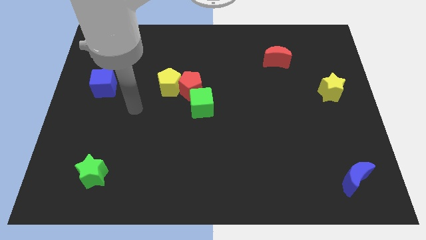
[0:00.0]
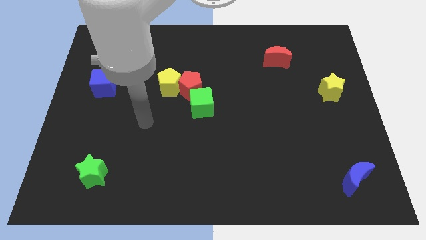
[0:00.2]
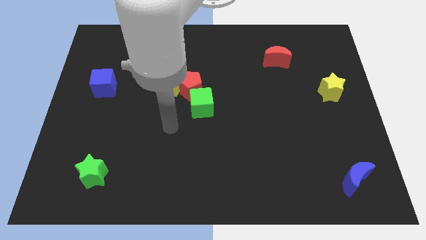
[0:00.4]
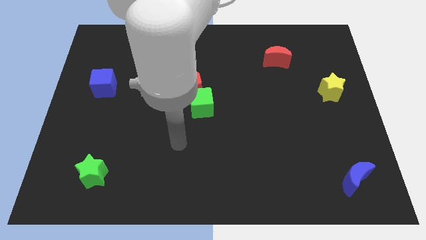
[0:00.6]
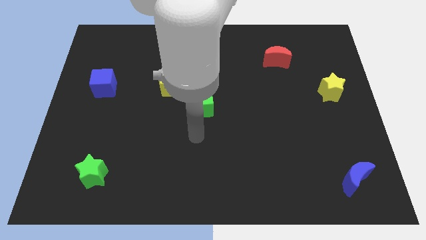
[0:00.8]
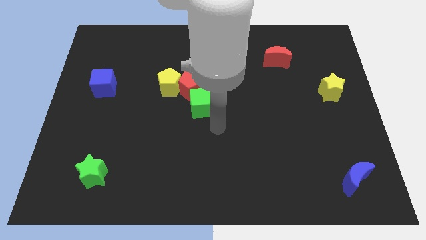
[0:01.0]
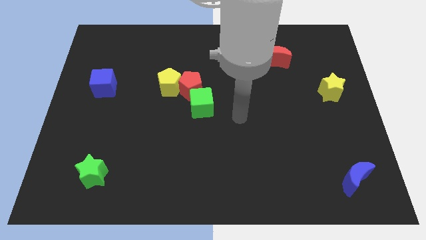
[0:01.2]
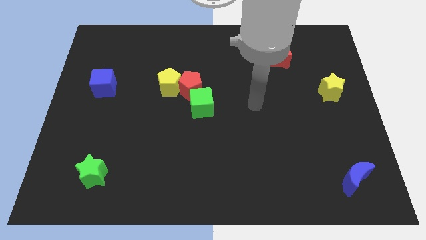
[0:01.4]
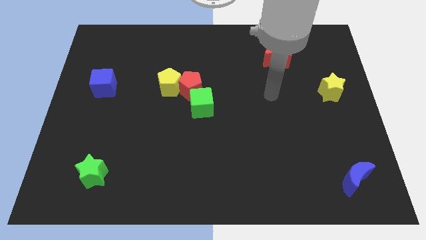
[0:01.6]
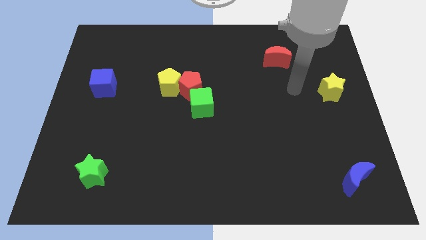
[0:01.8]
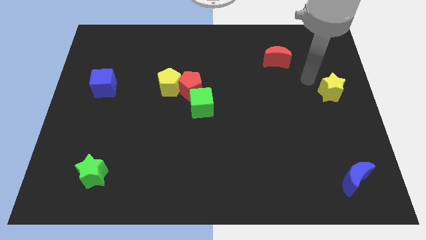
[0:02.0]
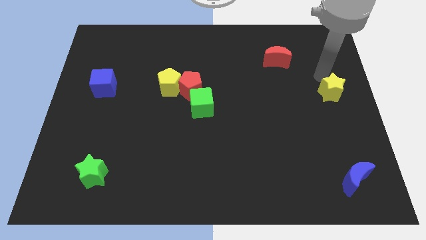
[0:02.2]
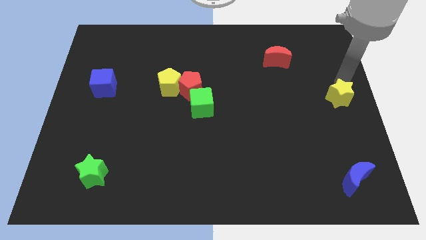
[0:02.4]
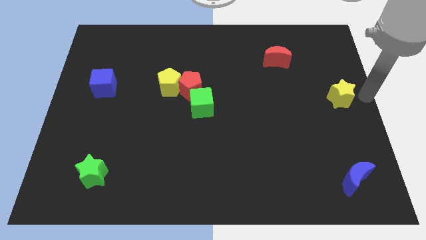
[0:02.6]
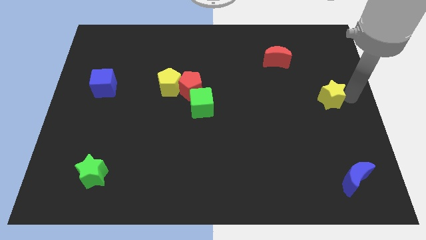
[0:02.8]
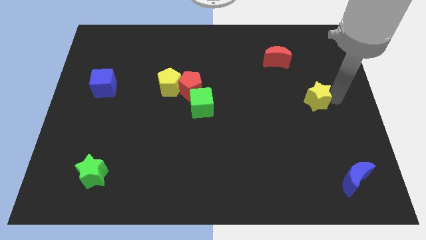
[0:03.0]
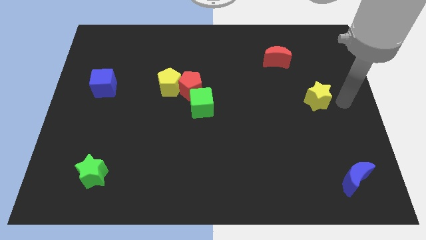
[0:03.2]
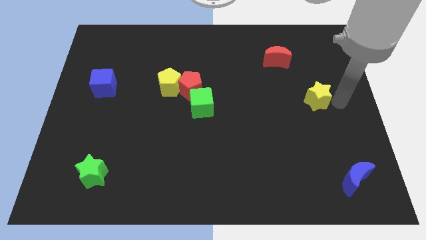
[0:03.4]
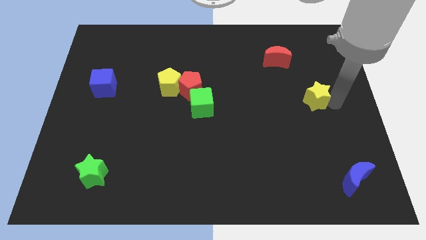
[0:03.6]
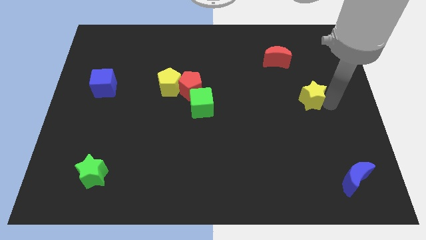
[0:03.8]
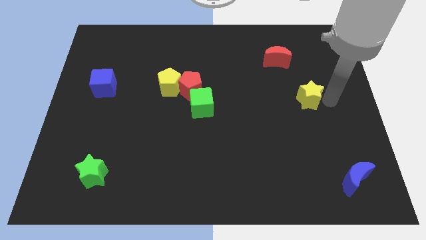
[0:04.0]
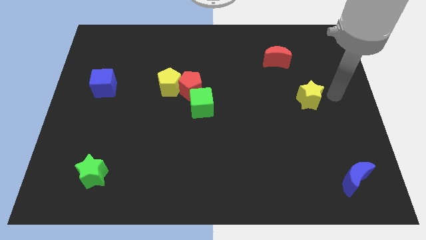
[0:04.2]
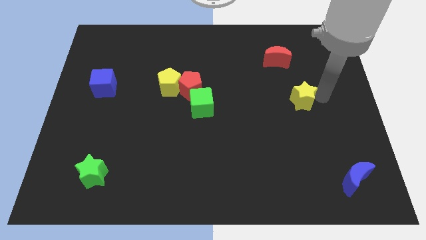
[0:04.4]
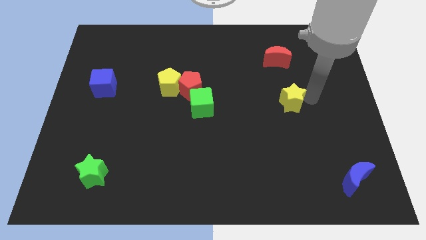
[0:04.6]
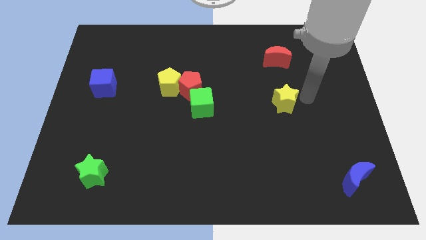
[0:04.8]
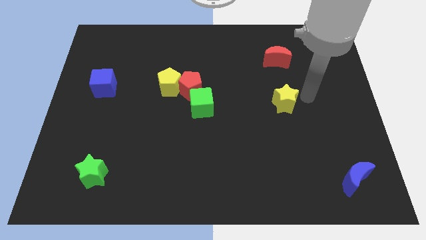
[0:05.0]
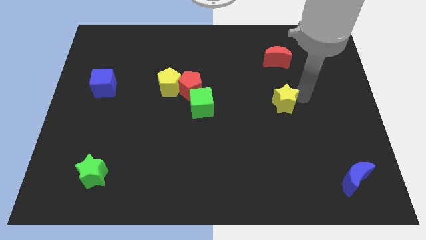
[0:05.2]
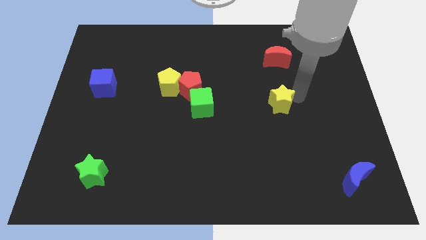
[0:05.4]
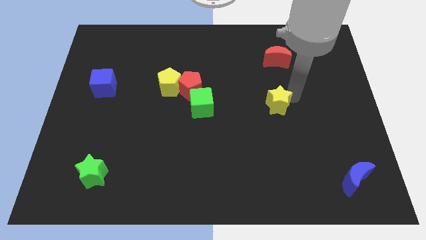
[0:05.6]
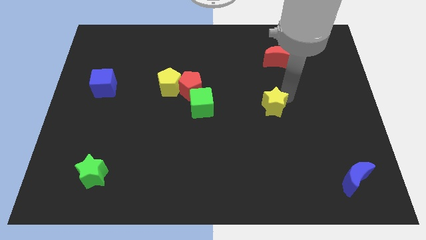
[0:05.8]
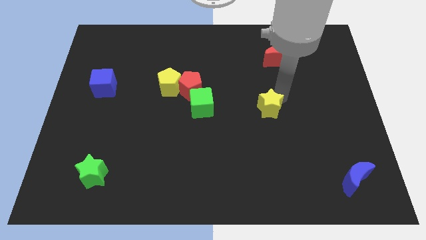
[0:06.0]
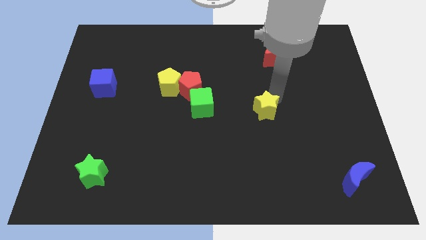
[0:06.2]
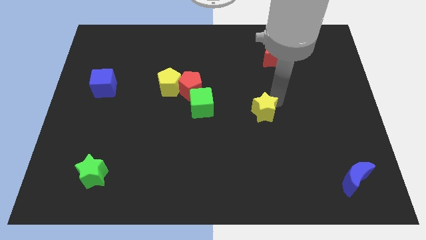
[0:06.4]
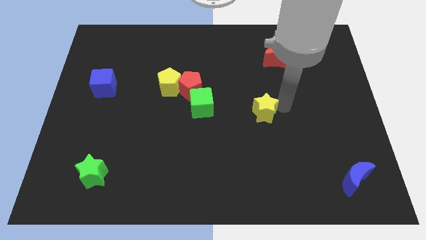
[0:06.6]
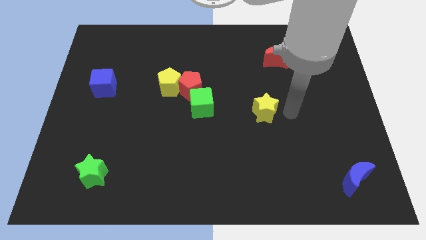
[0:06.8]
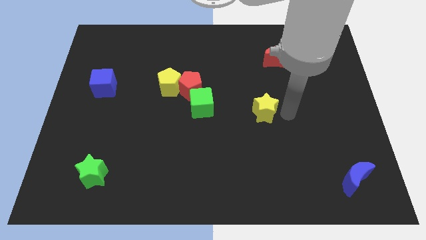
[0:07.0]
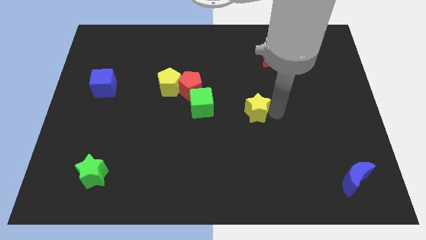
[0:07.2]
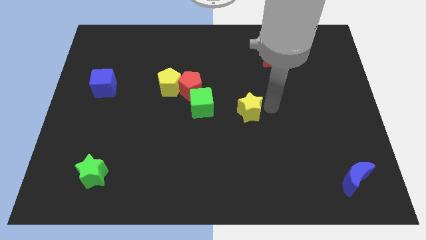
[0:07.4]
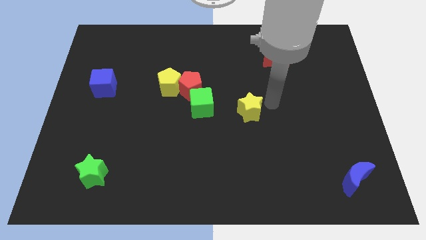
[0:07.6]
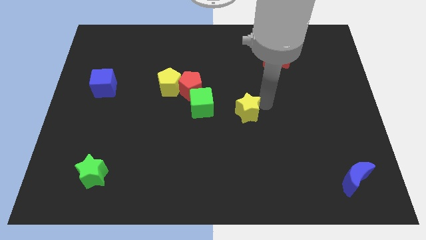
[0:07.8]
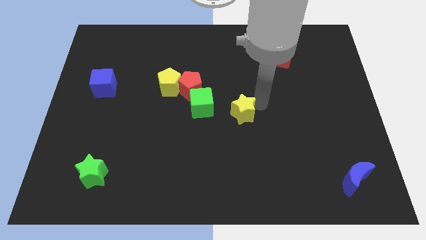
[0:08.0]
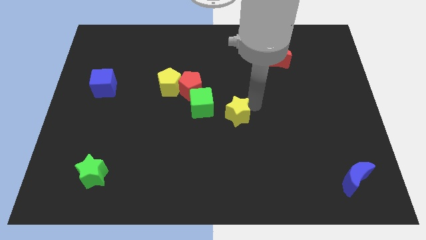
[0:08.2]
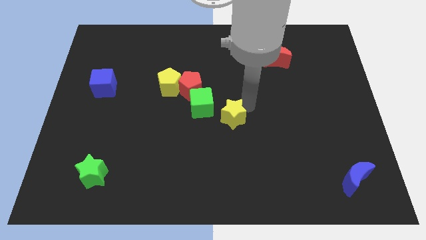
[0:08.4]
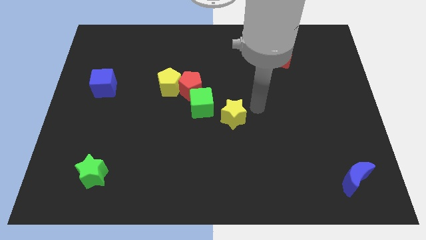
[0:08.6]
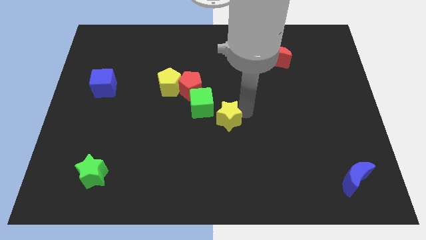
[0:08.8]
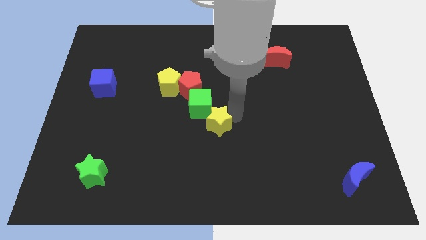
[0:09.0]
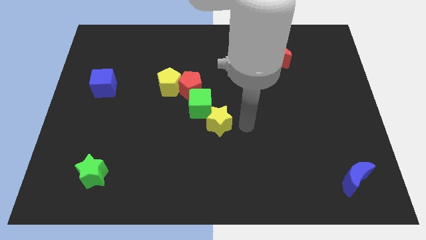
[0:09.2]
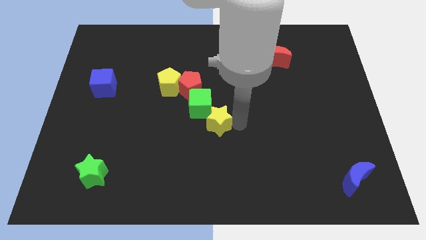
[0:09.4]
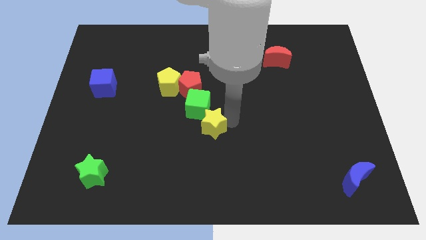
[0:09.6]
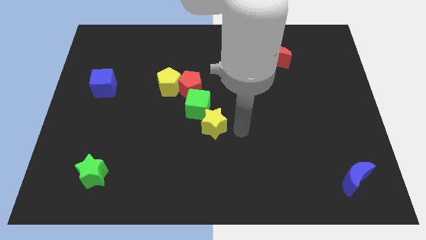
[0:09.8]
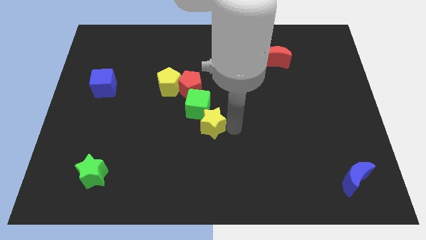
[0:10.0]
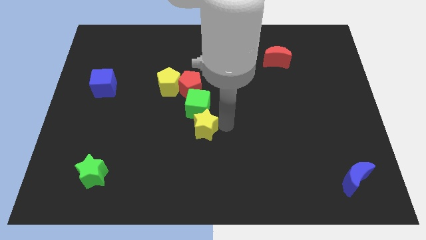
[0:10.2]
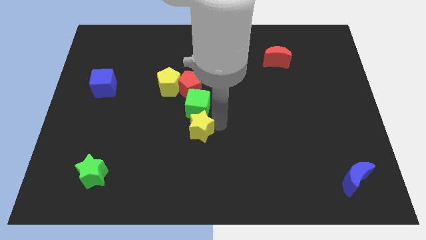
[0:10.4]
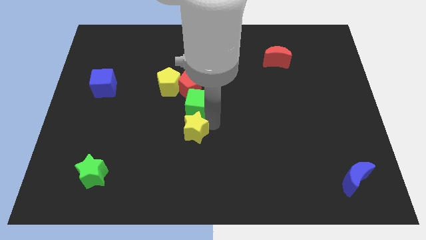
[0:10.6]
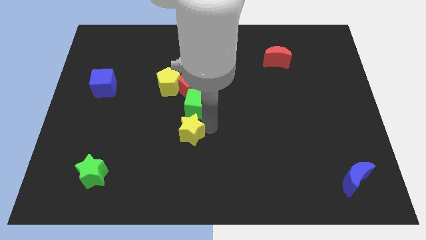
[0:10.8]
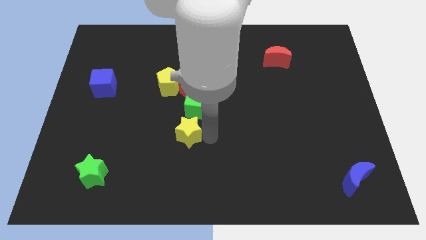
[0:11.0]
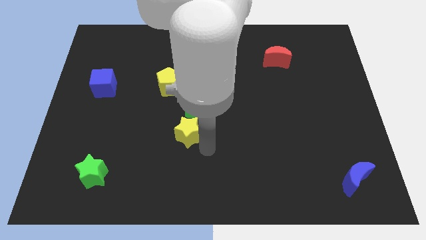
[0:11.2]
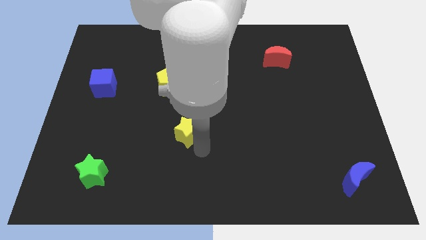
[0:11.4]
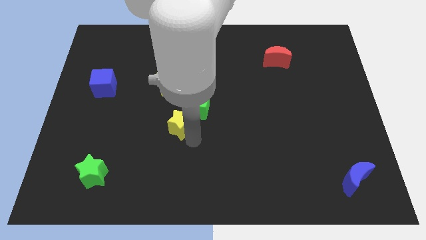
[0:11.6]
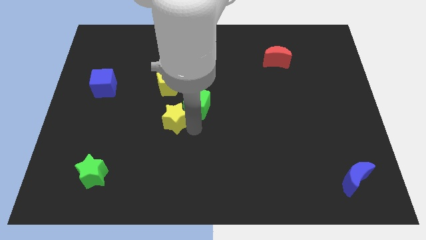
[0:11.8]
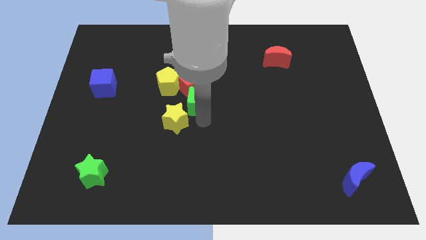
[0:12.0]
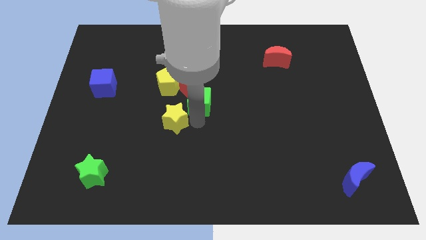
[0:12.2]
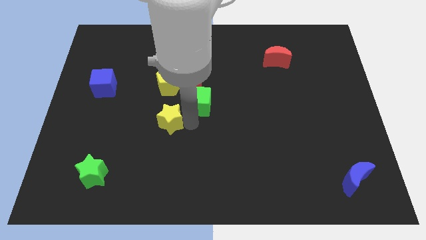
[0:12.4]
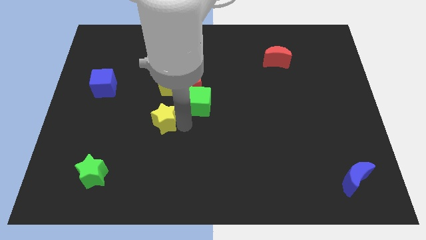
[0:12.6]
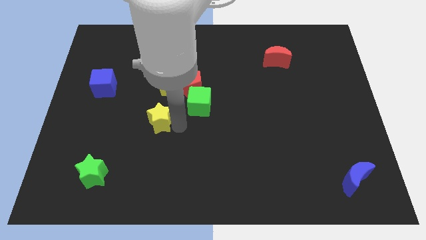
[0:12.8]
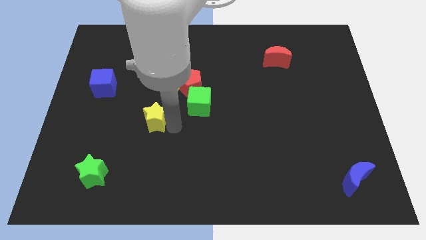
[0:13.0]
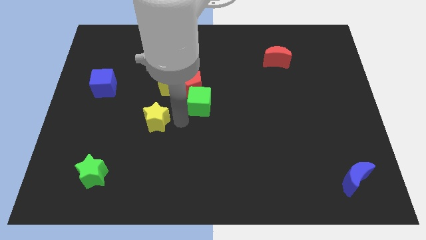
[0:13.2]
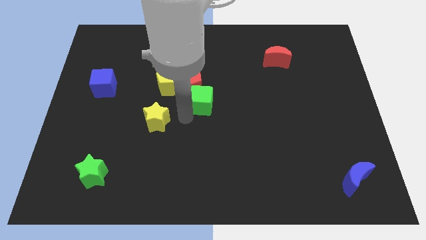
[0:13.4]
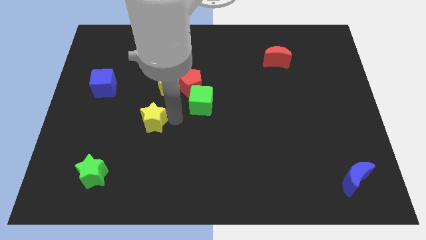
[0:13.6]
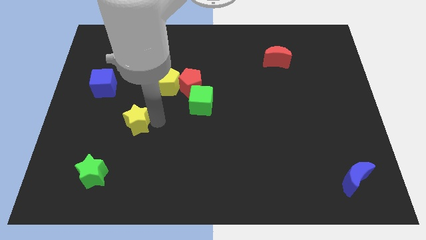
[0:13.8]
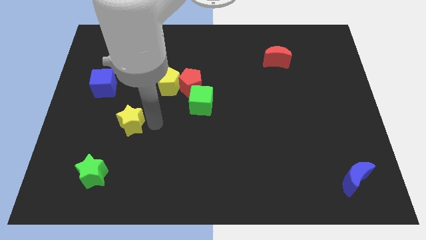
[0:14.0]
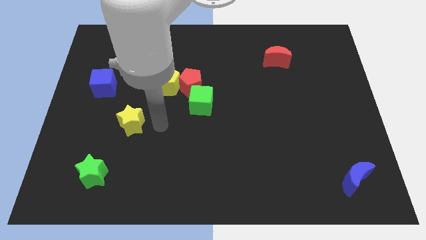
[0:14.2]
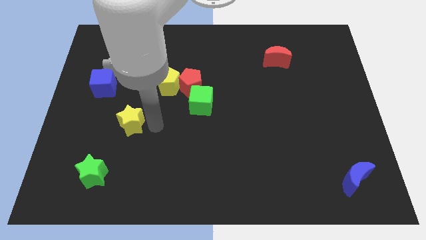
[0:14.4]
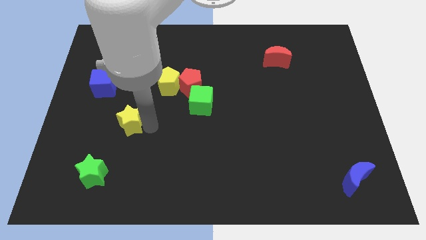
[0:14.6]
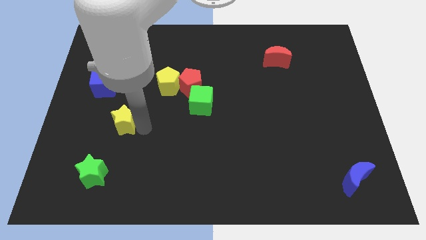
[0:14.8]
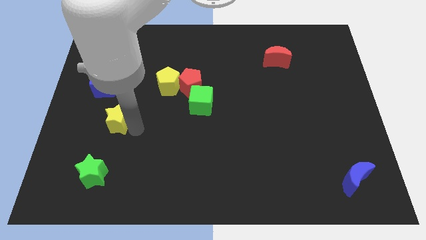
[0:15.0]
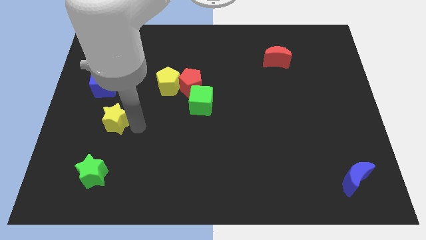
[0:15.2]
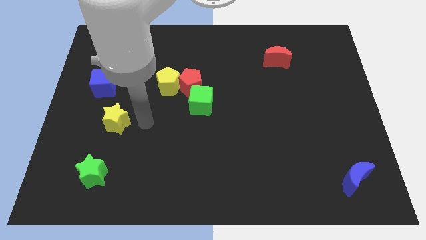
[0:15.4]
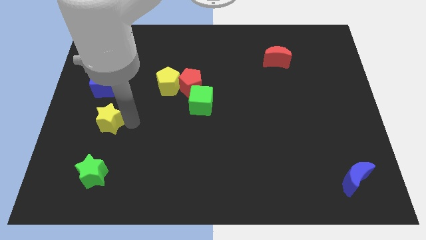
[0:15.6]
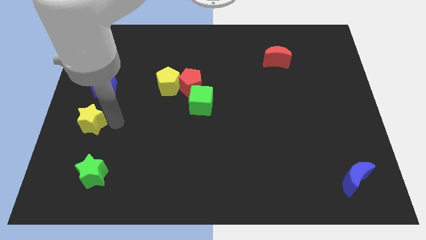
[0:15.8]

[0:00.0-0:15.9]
put the yellow star to the center left
